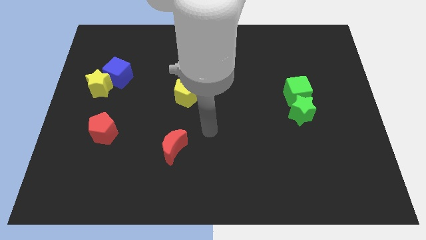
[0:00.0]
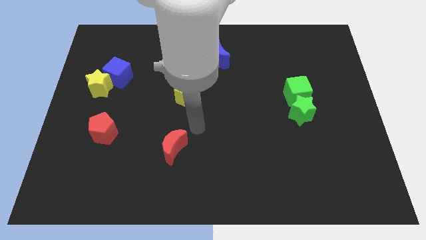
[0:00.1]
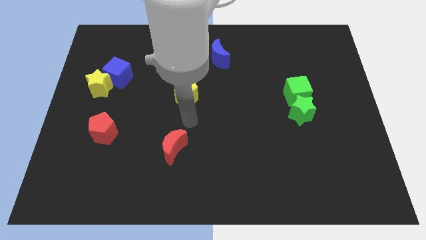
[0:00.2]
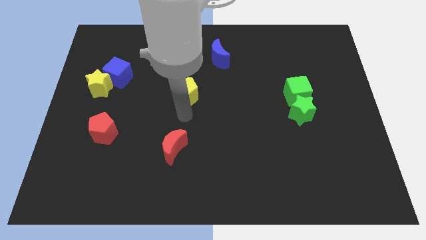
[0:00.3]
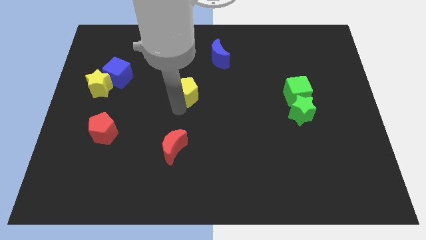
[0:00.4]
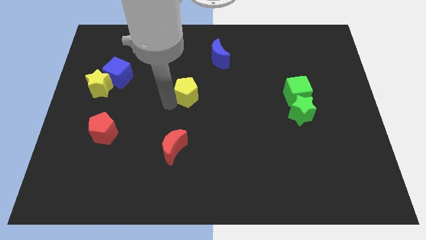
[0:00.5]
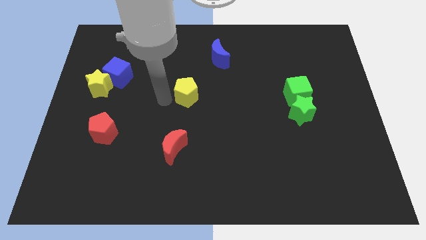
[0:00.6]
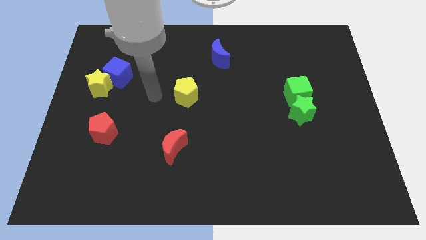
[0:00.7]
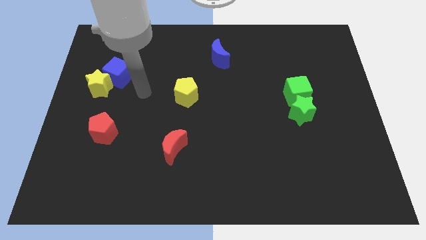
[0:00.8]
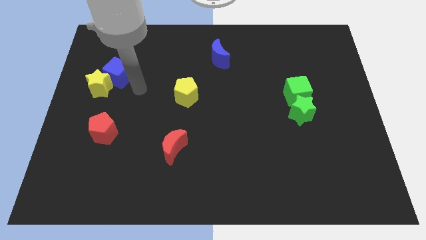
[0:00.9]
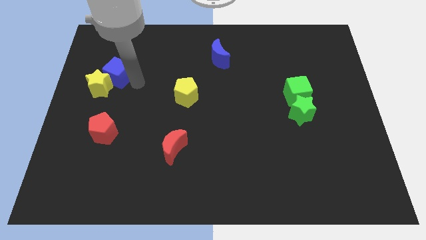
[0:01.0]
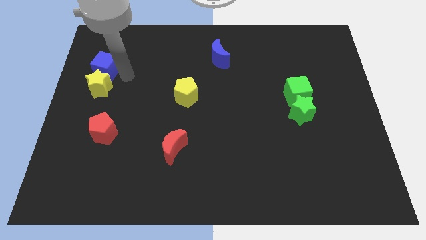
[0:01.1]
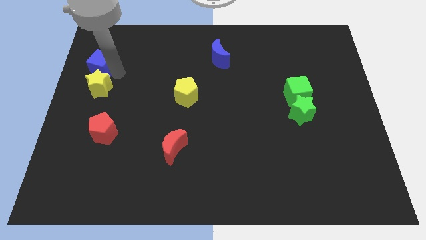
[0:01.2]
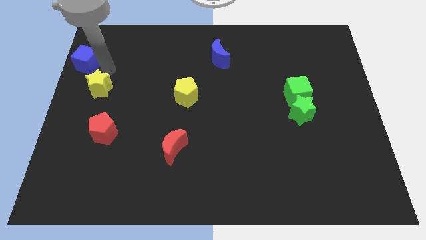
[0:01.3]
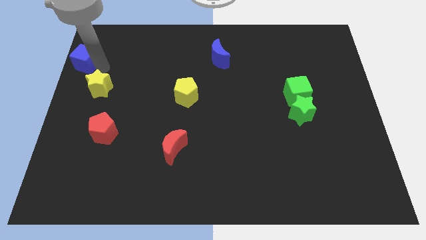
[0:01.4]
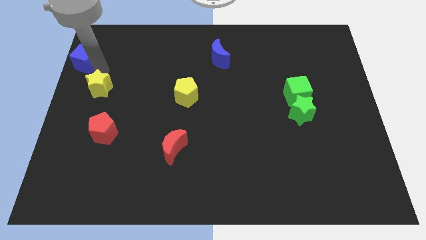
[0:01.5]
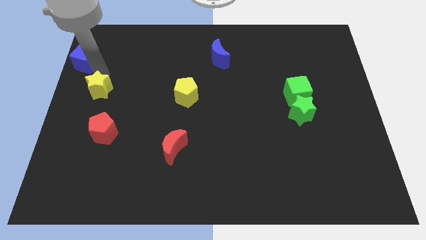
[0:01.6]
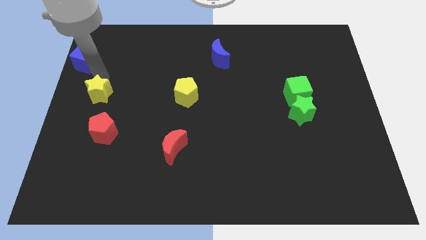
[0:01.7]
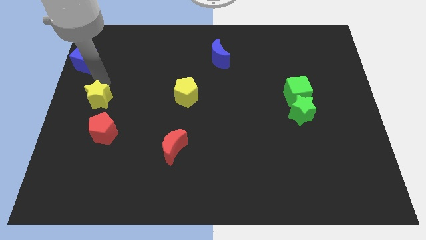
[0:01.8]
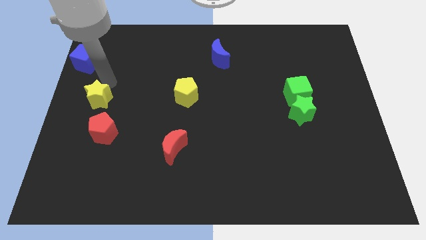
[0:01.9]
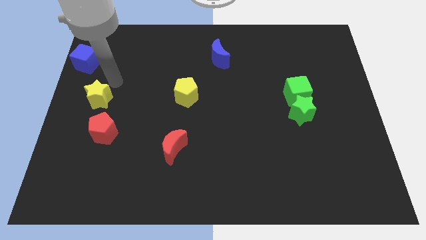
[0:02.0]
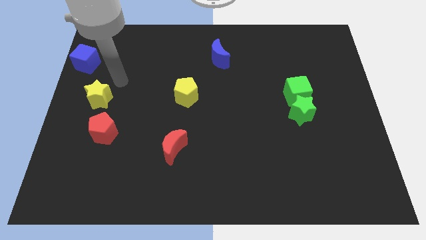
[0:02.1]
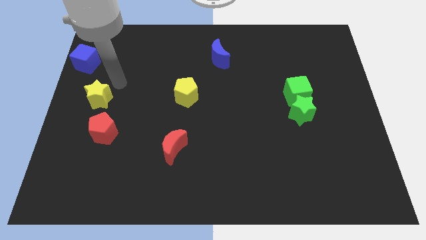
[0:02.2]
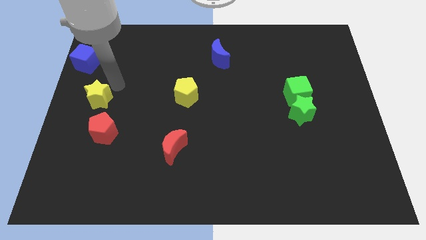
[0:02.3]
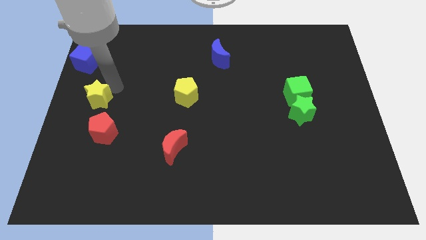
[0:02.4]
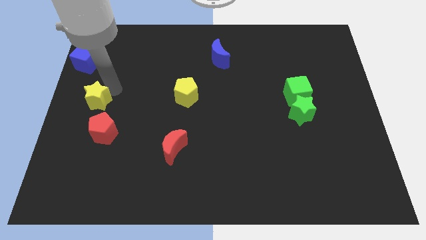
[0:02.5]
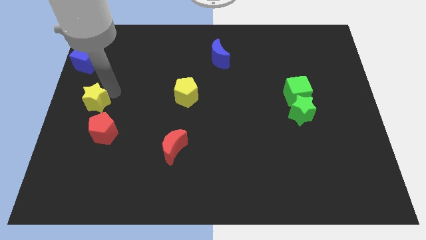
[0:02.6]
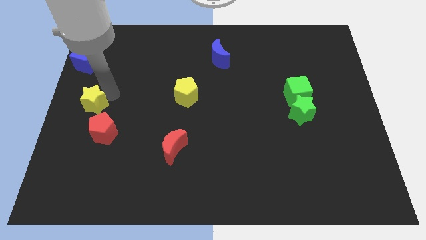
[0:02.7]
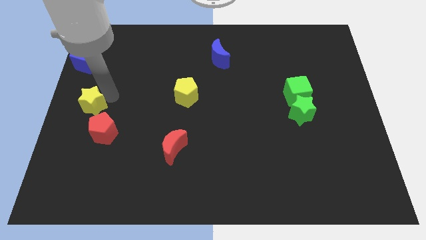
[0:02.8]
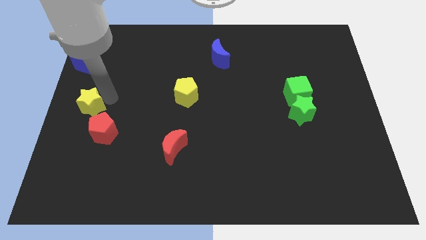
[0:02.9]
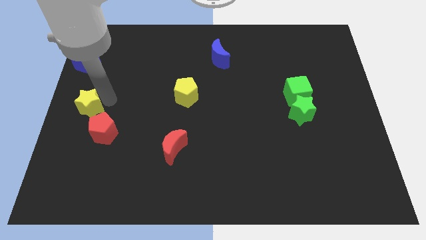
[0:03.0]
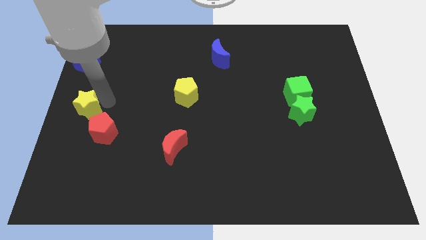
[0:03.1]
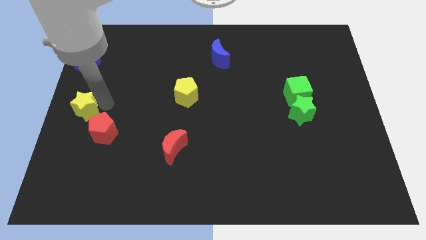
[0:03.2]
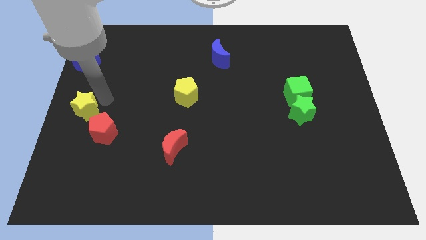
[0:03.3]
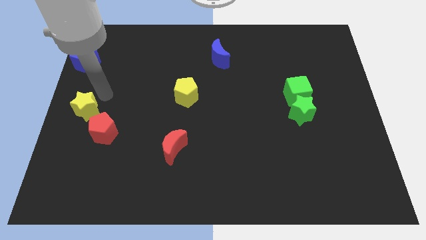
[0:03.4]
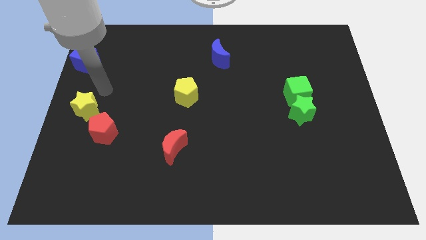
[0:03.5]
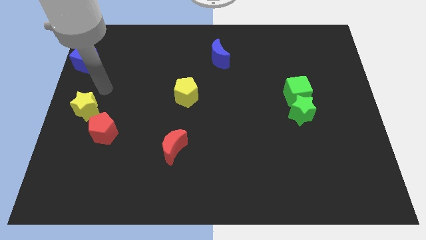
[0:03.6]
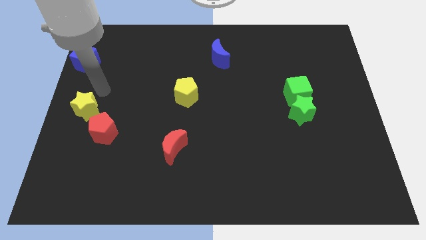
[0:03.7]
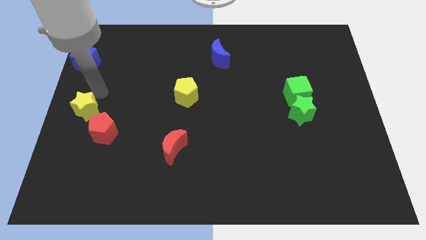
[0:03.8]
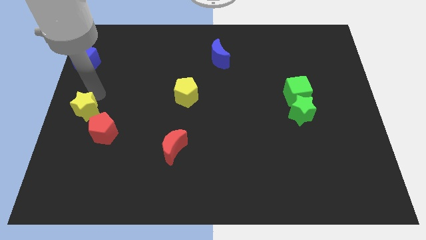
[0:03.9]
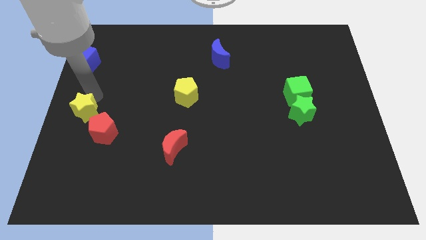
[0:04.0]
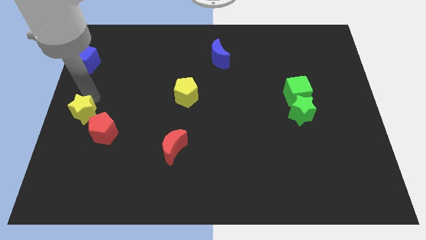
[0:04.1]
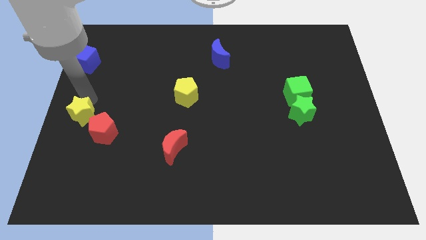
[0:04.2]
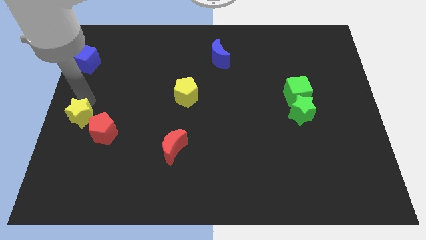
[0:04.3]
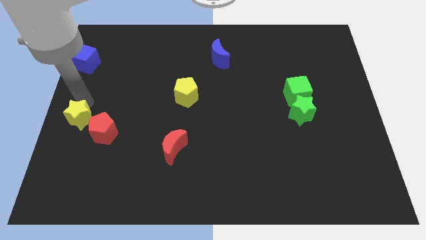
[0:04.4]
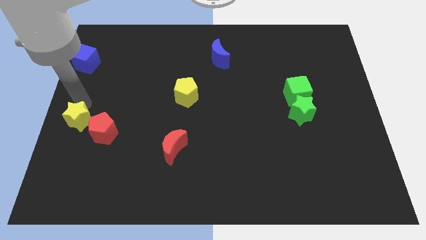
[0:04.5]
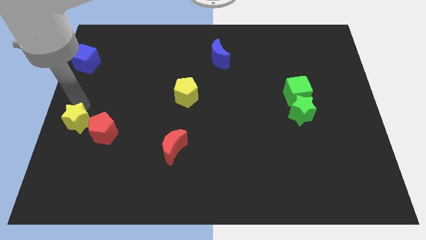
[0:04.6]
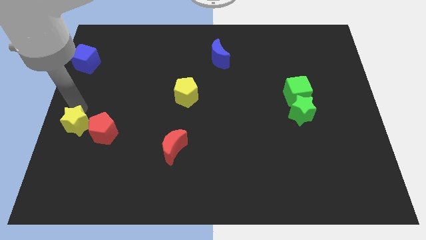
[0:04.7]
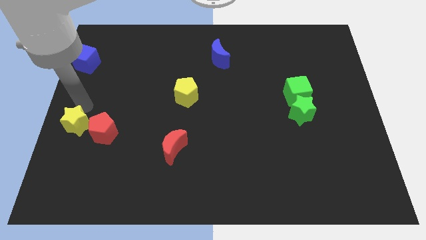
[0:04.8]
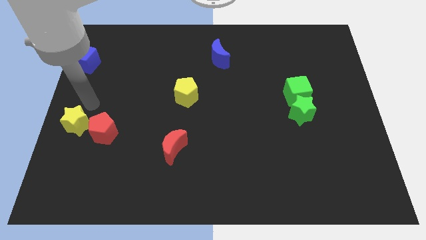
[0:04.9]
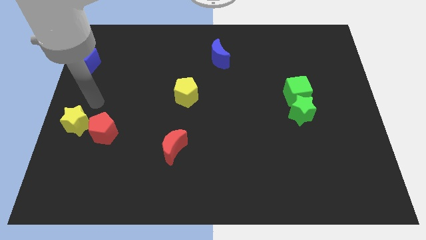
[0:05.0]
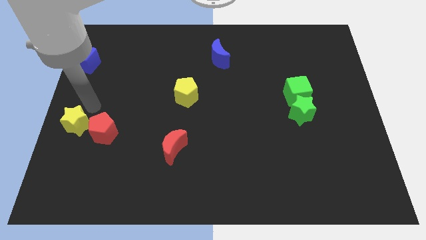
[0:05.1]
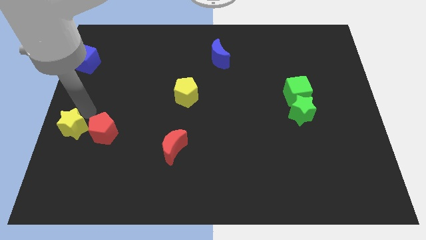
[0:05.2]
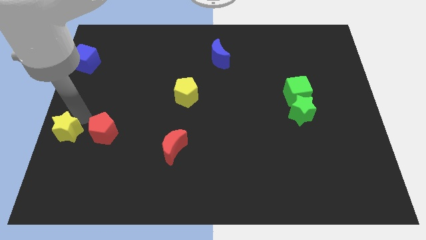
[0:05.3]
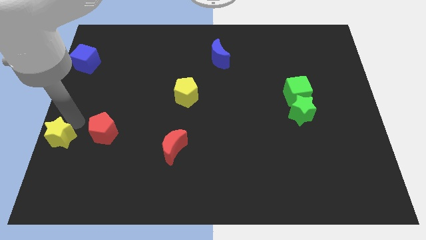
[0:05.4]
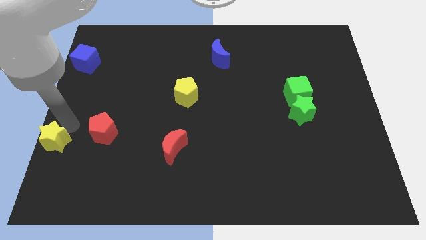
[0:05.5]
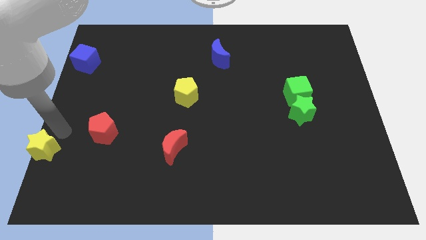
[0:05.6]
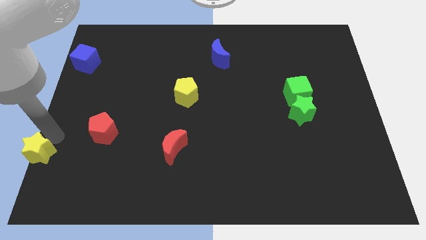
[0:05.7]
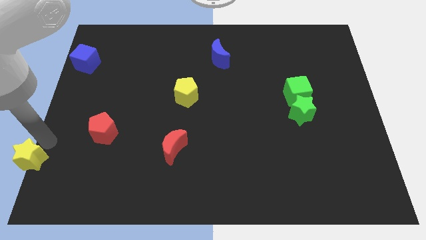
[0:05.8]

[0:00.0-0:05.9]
slide the yellow star to the bottom left corner

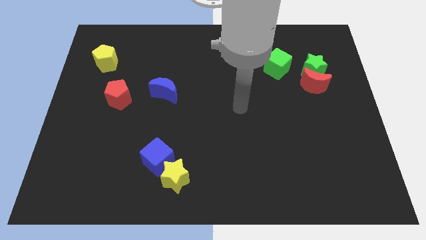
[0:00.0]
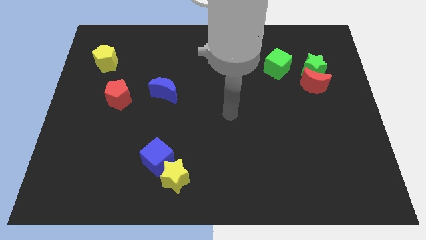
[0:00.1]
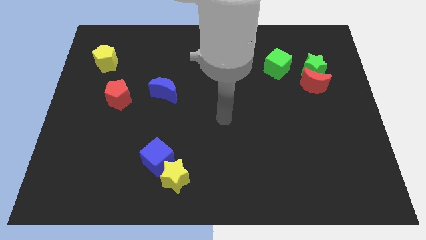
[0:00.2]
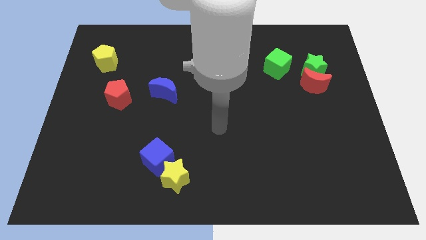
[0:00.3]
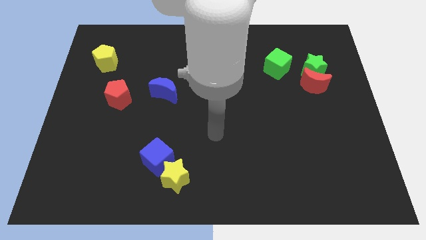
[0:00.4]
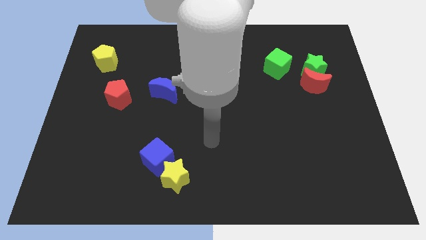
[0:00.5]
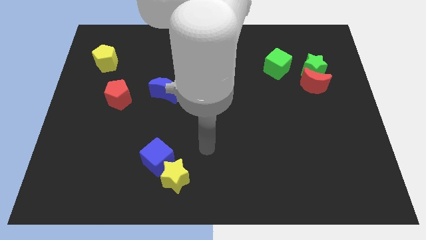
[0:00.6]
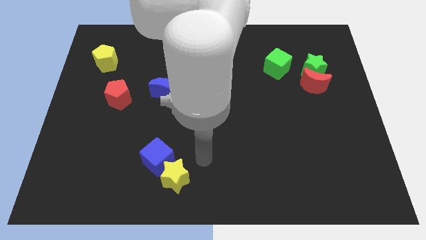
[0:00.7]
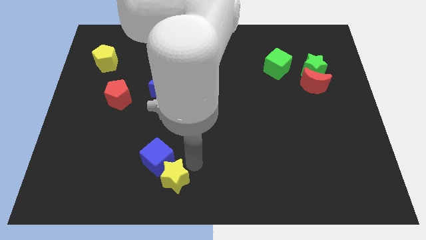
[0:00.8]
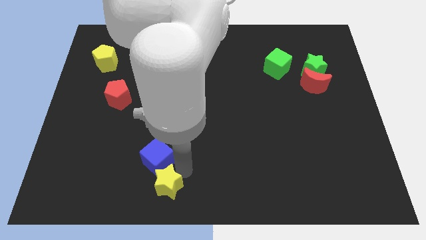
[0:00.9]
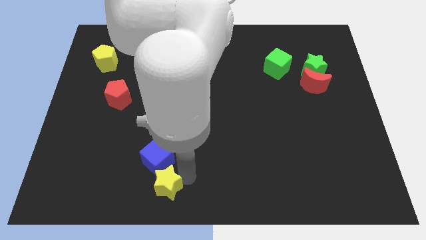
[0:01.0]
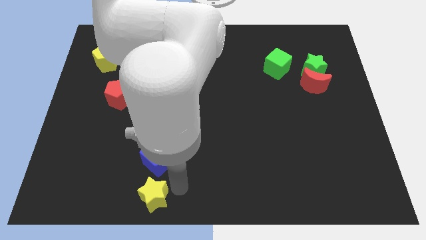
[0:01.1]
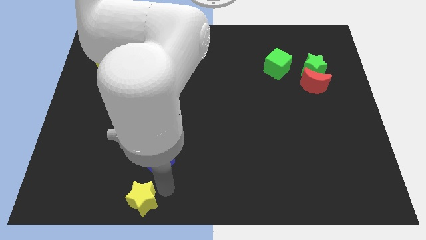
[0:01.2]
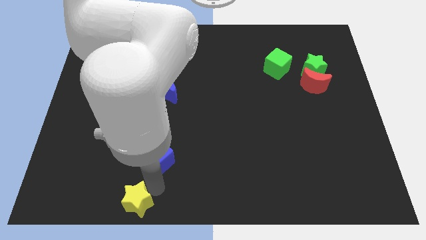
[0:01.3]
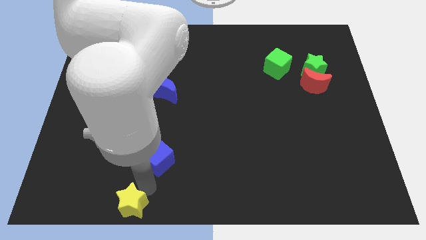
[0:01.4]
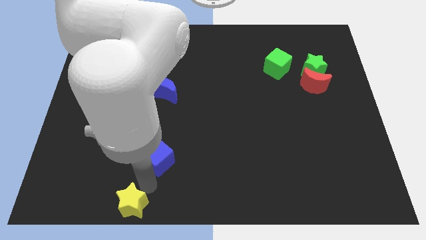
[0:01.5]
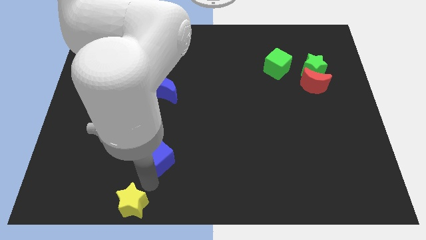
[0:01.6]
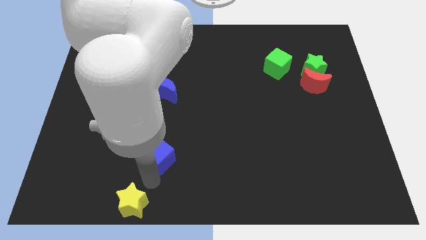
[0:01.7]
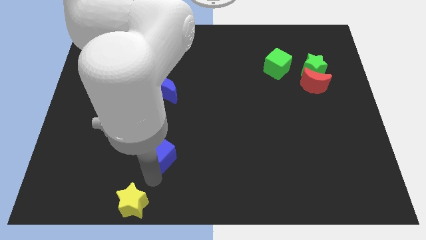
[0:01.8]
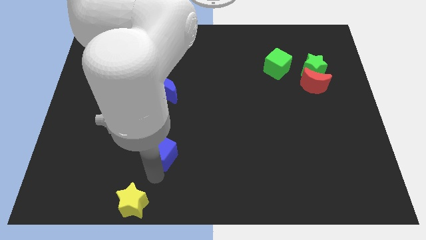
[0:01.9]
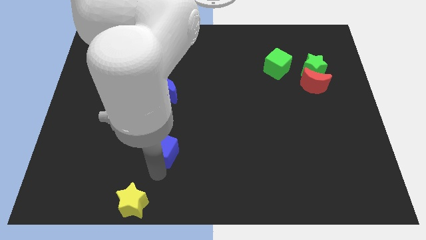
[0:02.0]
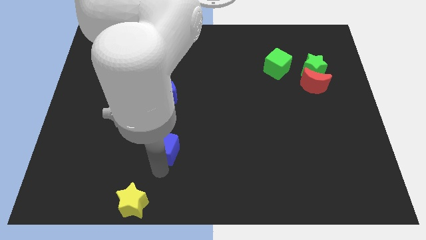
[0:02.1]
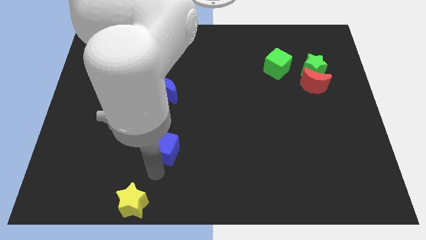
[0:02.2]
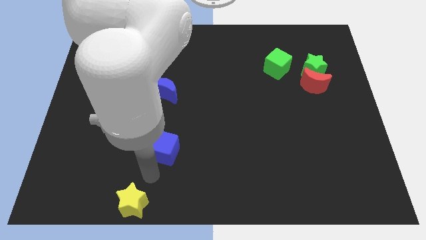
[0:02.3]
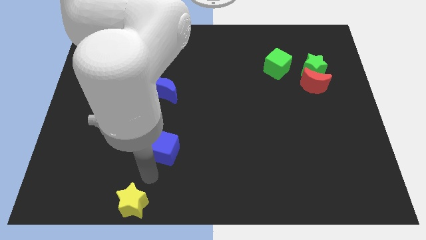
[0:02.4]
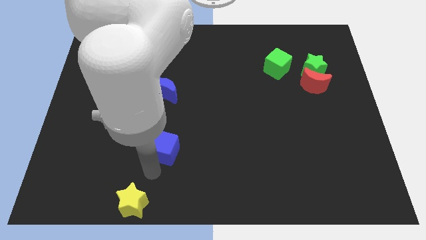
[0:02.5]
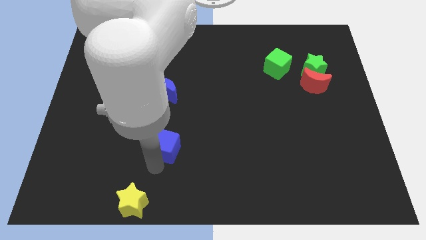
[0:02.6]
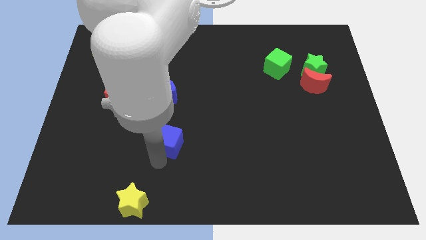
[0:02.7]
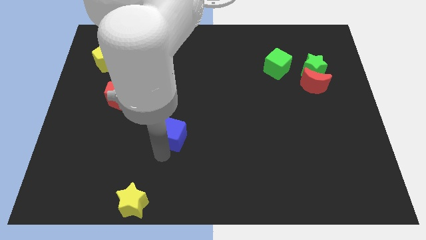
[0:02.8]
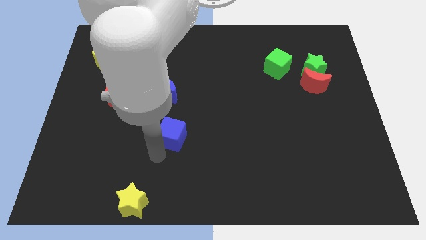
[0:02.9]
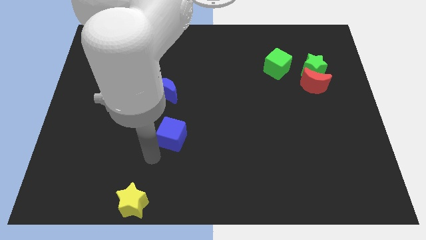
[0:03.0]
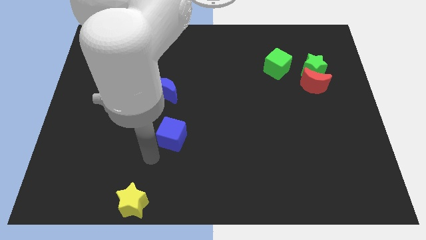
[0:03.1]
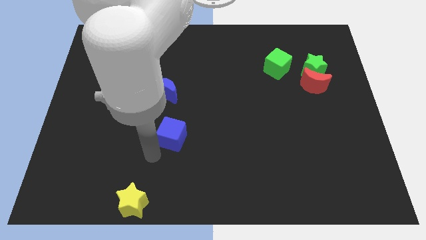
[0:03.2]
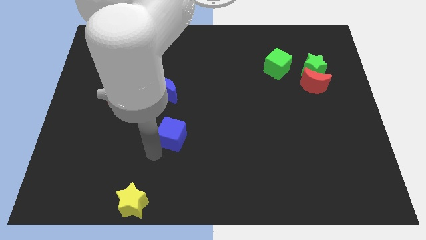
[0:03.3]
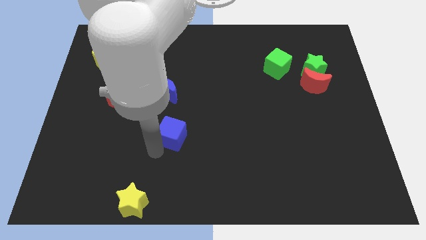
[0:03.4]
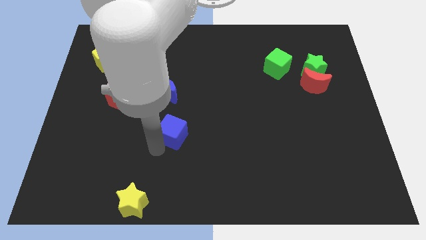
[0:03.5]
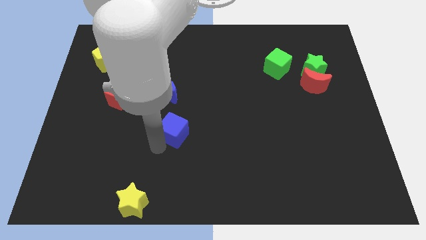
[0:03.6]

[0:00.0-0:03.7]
push the blue cube to the center of the board
